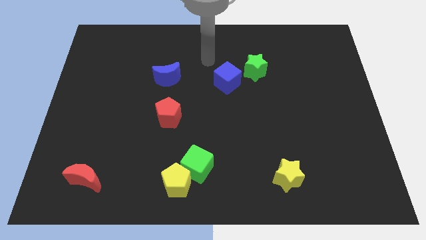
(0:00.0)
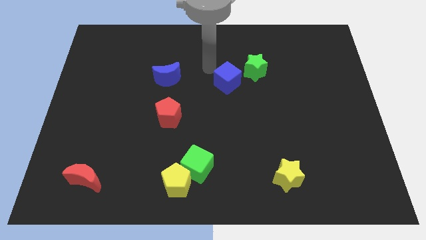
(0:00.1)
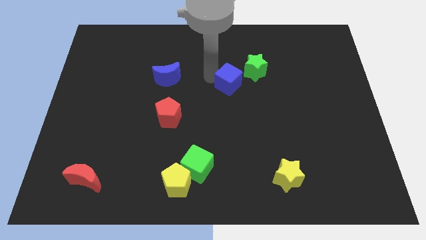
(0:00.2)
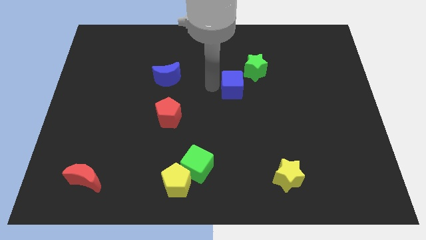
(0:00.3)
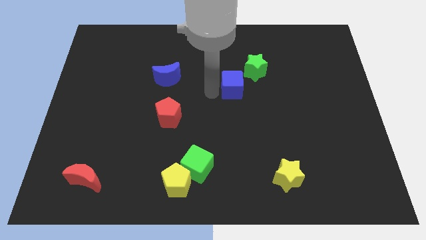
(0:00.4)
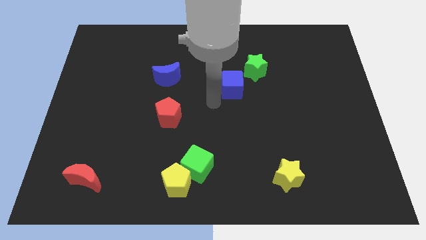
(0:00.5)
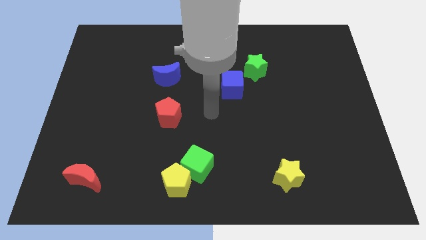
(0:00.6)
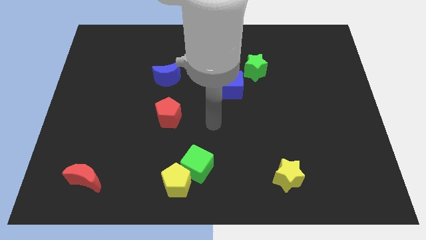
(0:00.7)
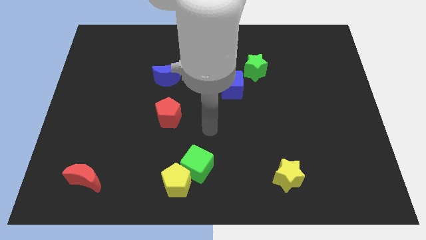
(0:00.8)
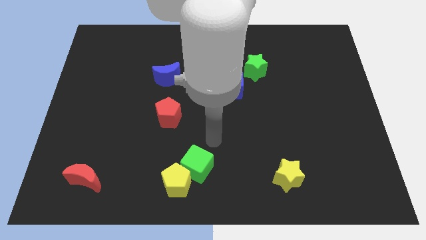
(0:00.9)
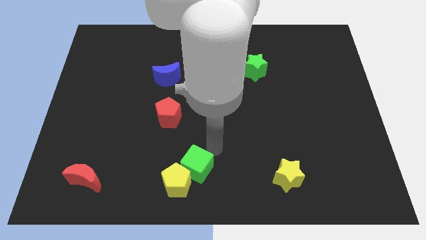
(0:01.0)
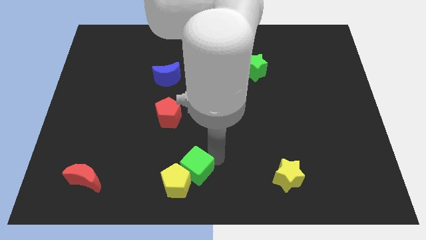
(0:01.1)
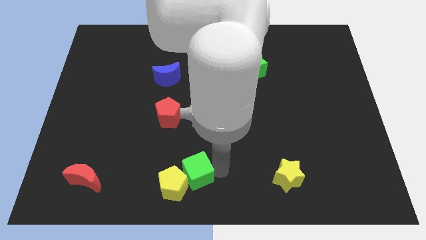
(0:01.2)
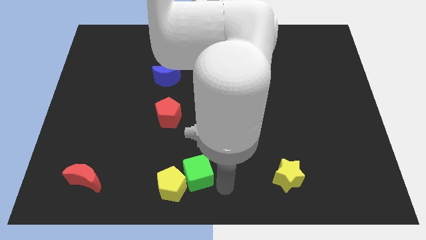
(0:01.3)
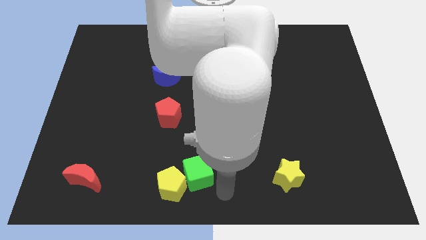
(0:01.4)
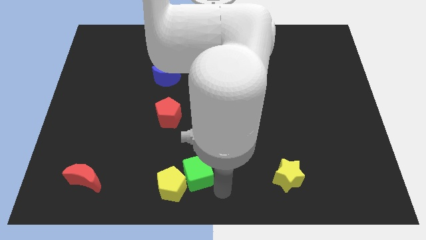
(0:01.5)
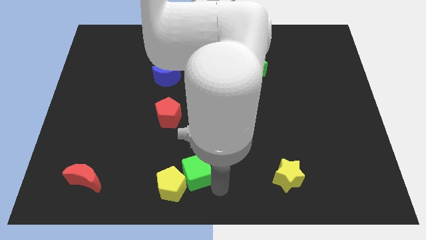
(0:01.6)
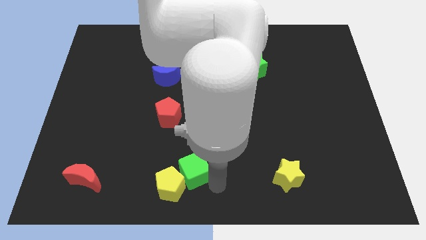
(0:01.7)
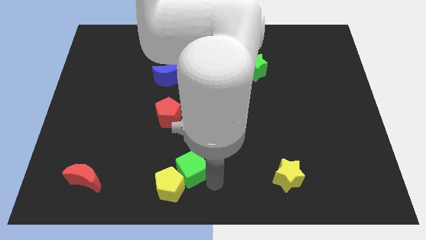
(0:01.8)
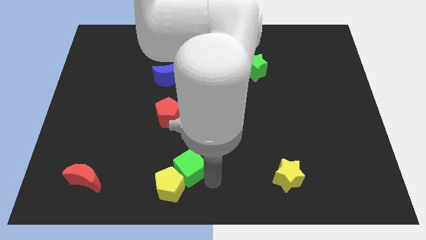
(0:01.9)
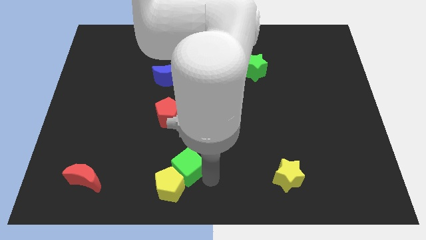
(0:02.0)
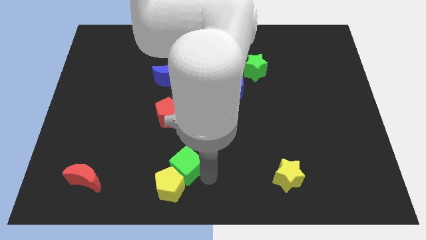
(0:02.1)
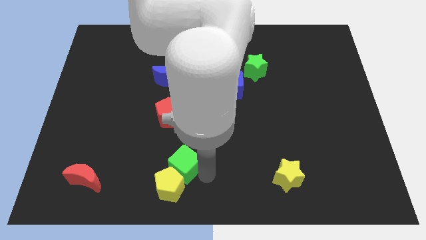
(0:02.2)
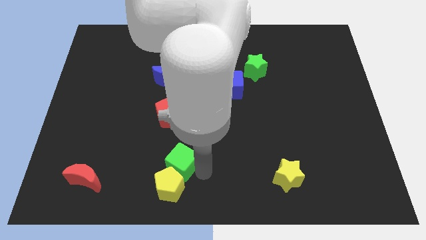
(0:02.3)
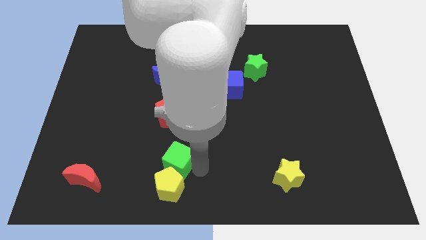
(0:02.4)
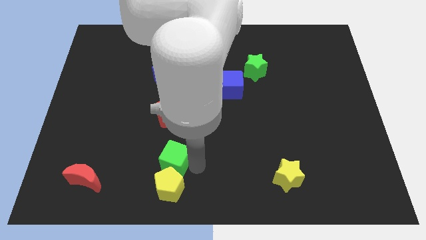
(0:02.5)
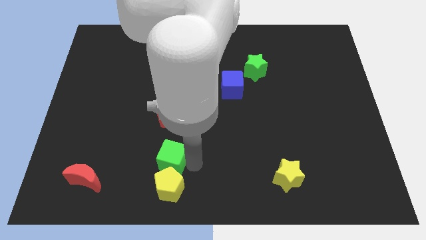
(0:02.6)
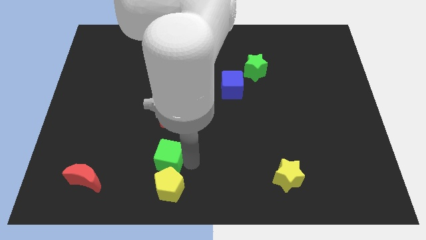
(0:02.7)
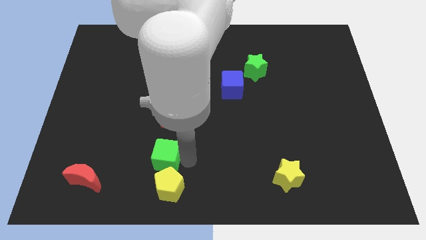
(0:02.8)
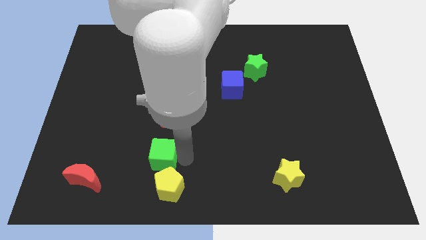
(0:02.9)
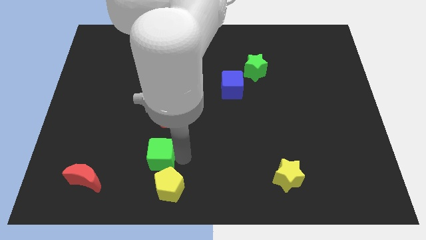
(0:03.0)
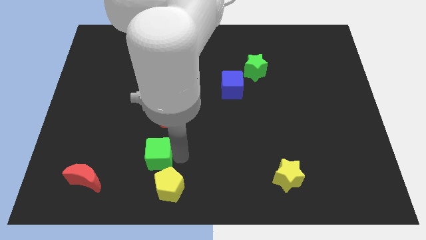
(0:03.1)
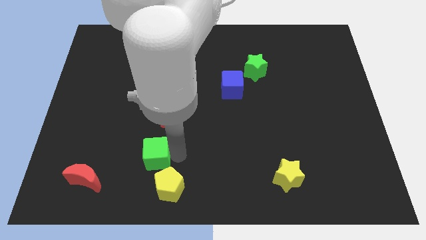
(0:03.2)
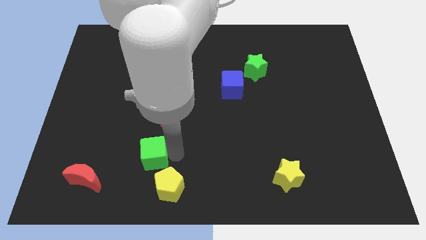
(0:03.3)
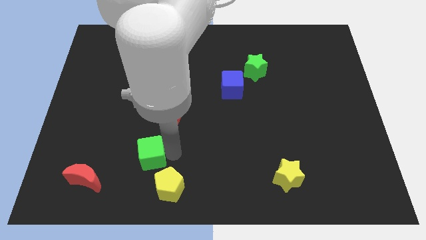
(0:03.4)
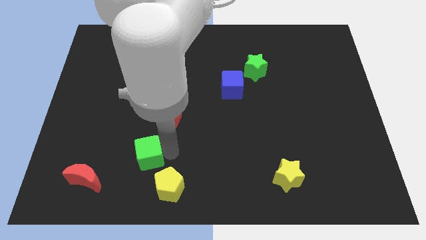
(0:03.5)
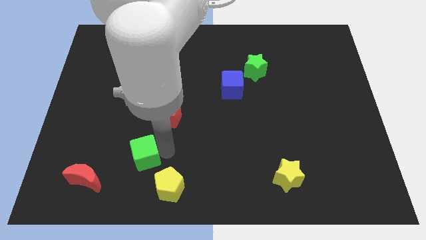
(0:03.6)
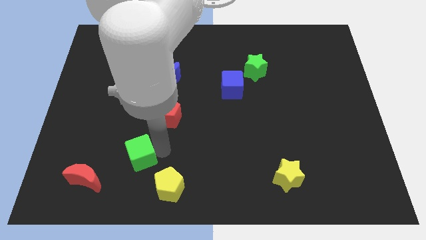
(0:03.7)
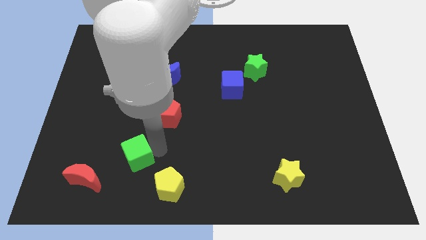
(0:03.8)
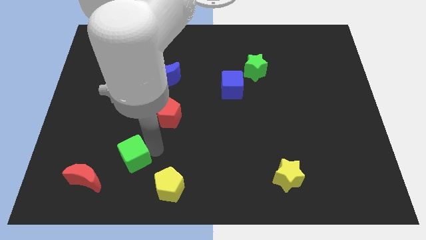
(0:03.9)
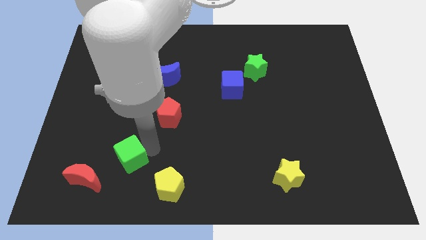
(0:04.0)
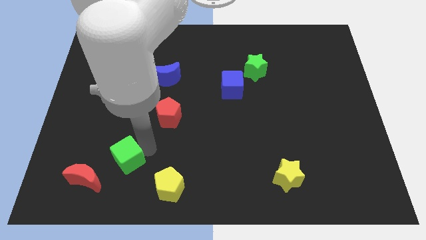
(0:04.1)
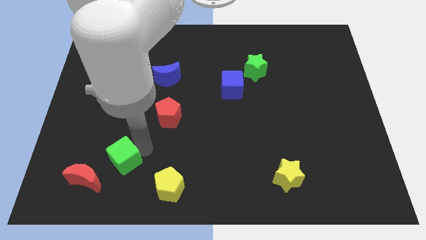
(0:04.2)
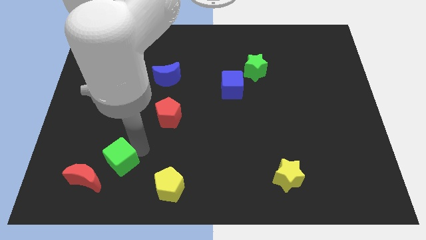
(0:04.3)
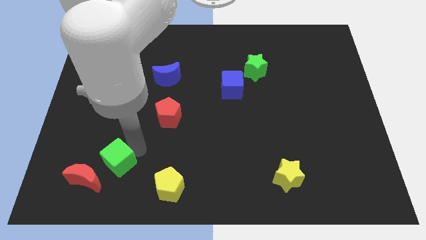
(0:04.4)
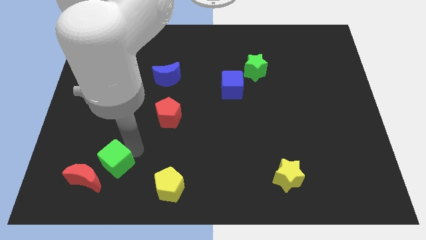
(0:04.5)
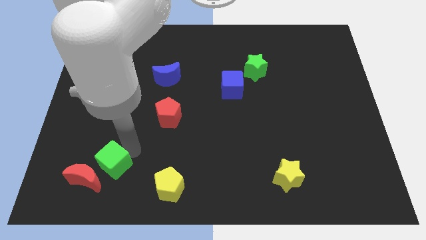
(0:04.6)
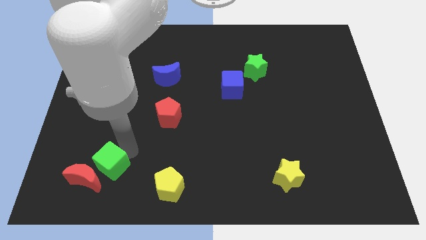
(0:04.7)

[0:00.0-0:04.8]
move the green cube close to the red moon

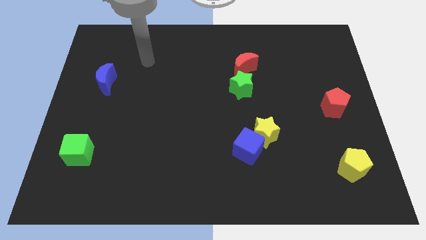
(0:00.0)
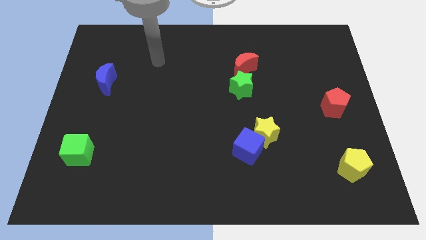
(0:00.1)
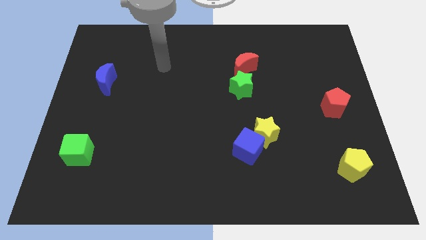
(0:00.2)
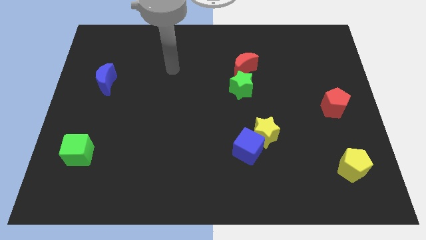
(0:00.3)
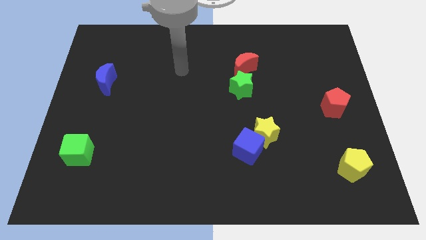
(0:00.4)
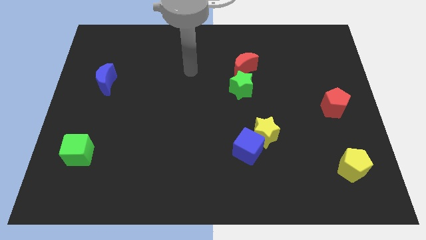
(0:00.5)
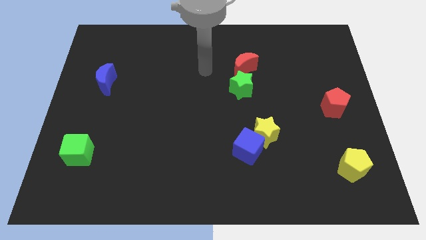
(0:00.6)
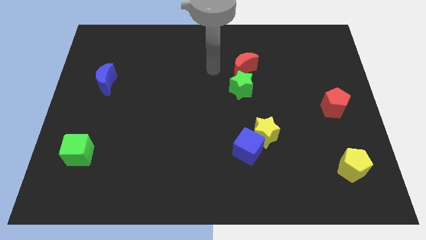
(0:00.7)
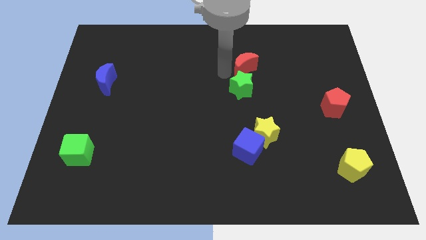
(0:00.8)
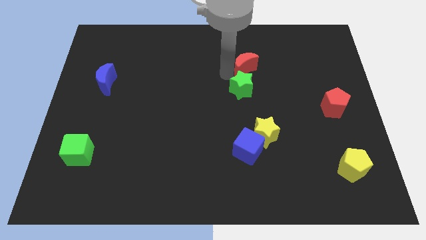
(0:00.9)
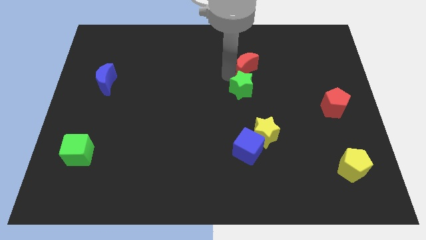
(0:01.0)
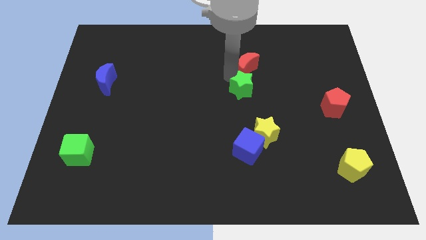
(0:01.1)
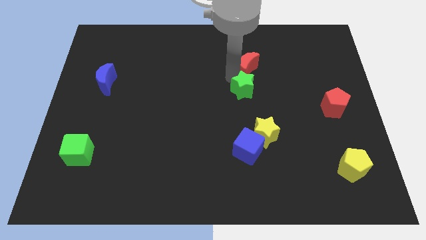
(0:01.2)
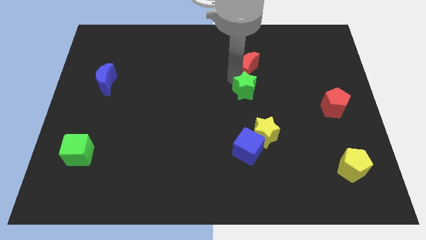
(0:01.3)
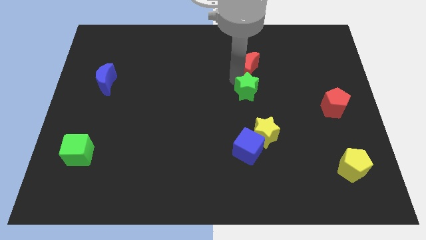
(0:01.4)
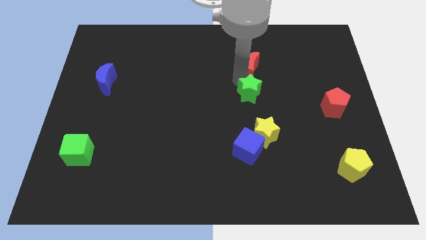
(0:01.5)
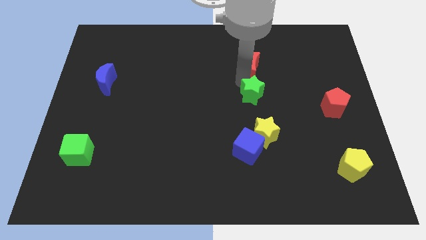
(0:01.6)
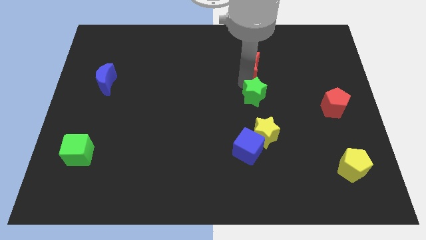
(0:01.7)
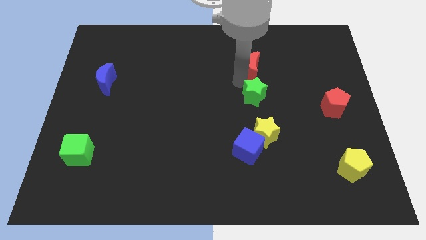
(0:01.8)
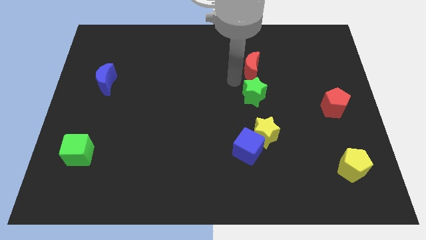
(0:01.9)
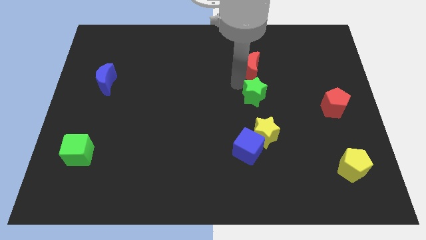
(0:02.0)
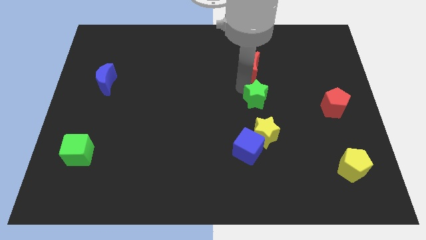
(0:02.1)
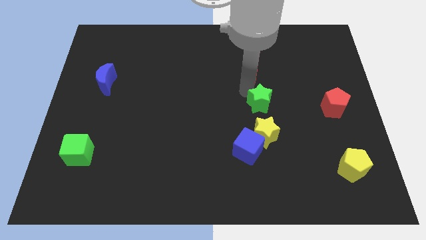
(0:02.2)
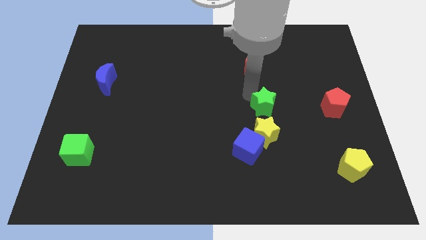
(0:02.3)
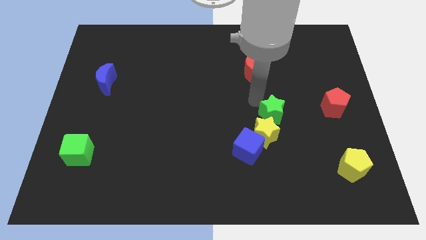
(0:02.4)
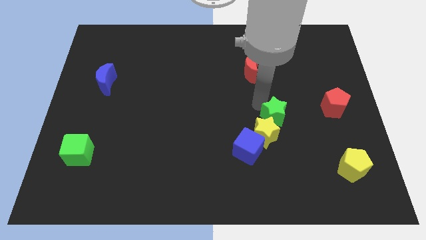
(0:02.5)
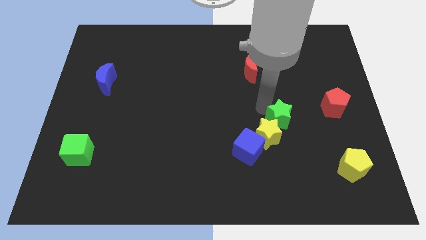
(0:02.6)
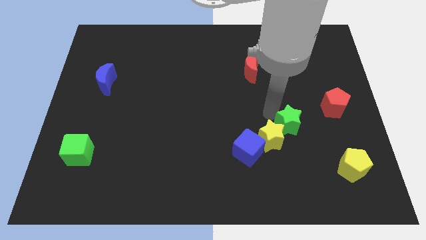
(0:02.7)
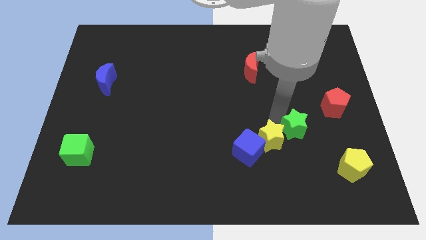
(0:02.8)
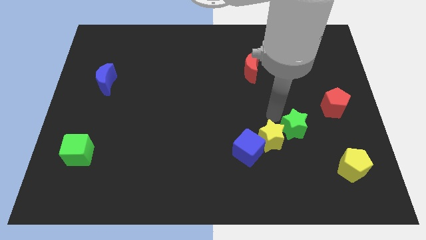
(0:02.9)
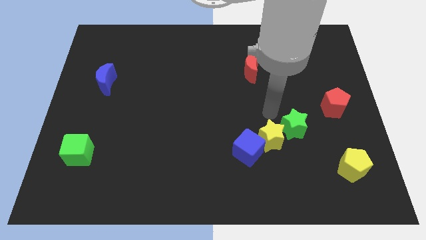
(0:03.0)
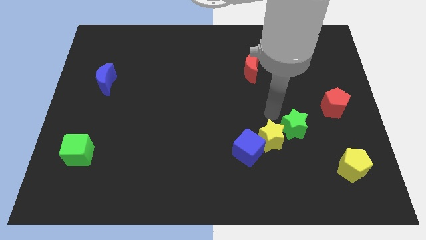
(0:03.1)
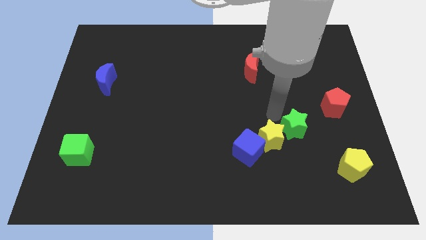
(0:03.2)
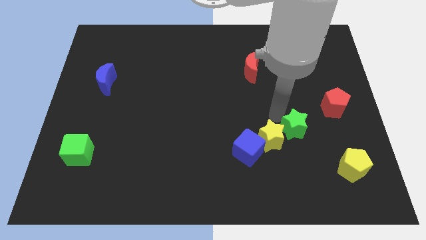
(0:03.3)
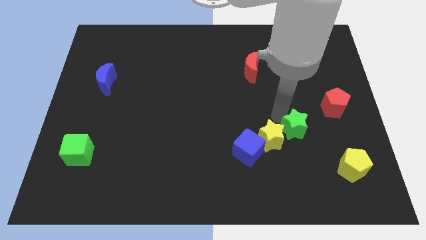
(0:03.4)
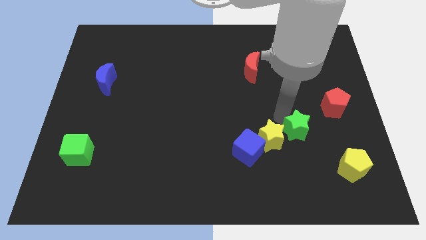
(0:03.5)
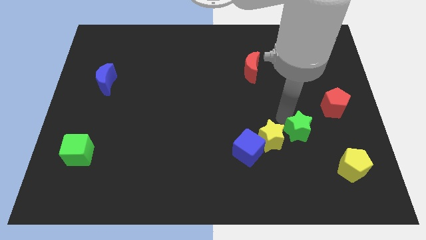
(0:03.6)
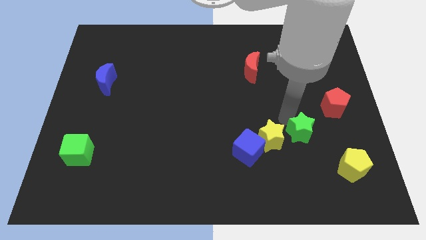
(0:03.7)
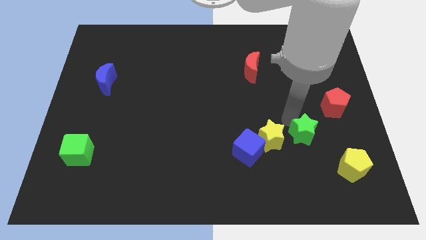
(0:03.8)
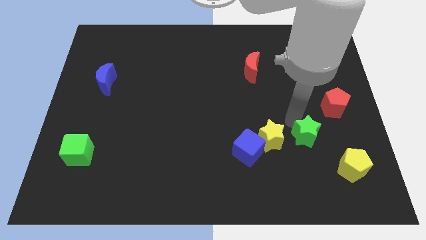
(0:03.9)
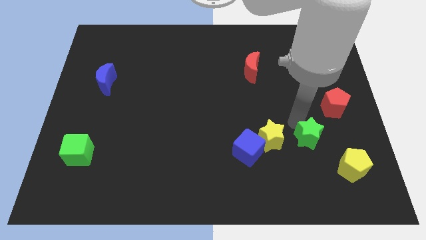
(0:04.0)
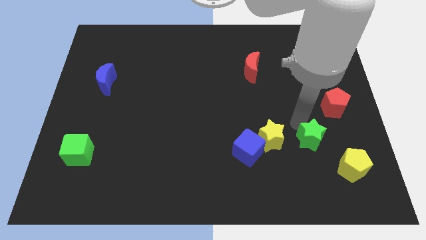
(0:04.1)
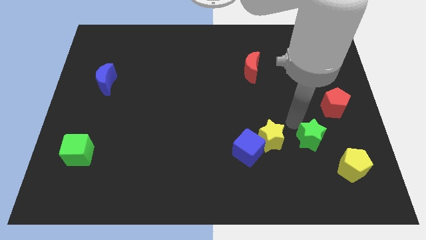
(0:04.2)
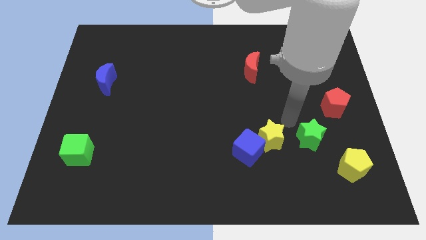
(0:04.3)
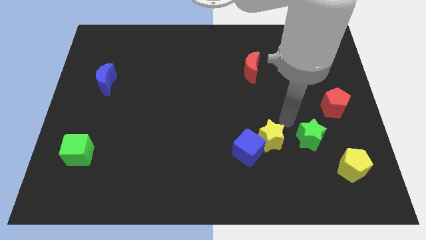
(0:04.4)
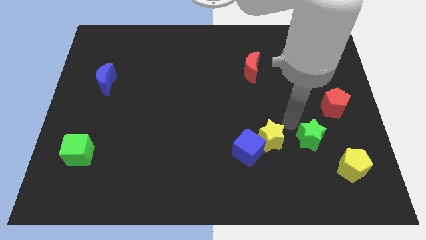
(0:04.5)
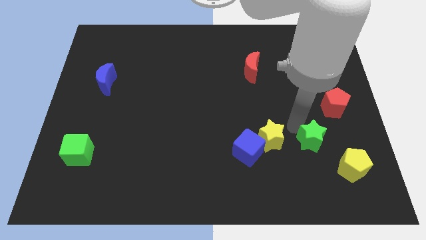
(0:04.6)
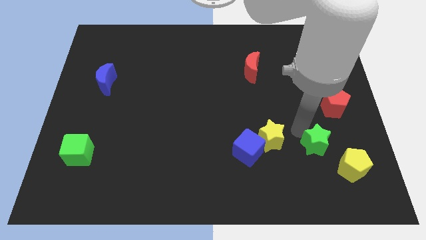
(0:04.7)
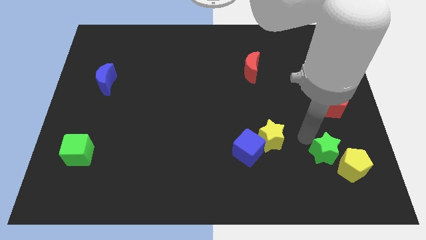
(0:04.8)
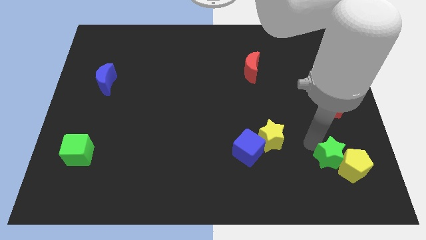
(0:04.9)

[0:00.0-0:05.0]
push the green star next to the yellow pentagon
